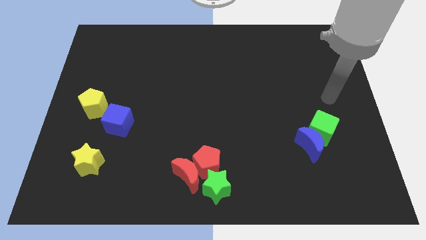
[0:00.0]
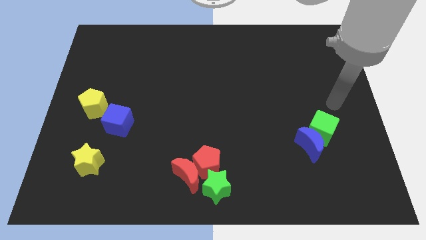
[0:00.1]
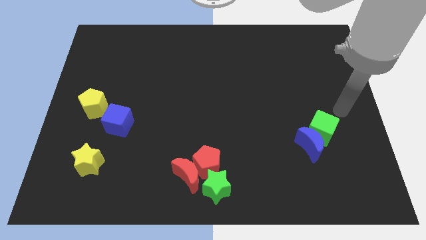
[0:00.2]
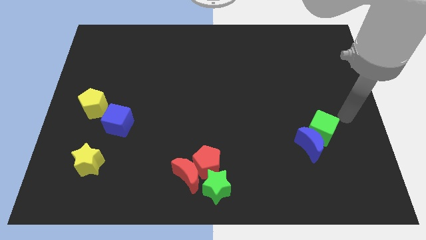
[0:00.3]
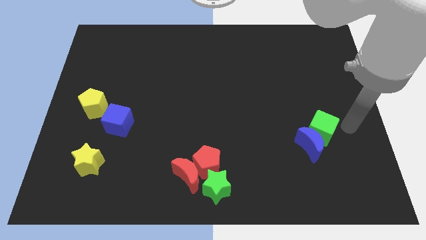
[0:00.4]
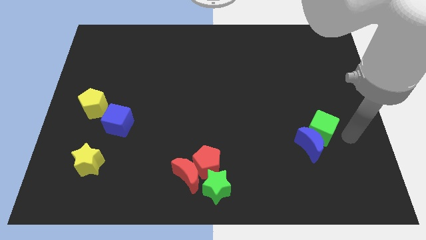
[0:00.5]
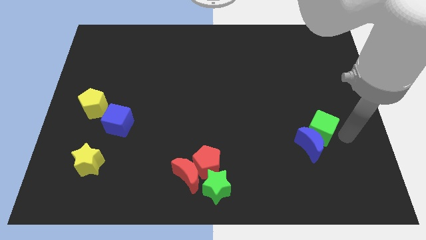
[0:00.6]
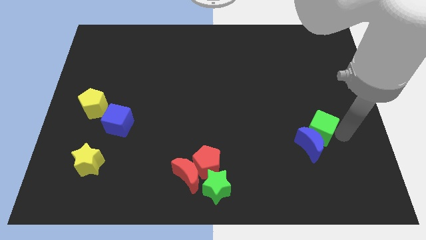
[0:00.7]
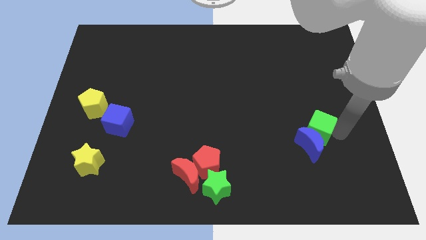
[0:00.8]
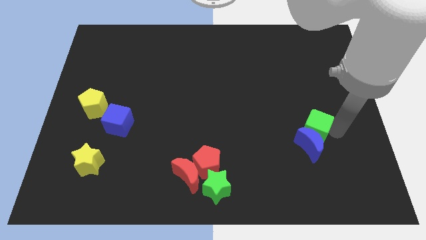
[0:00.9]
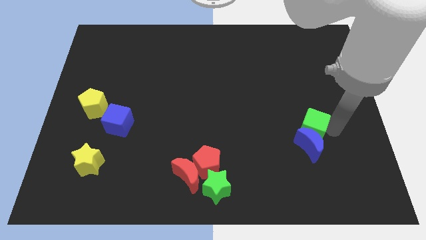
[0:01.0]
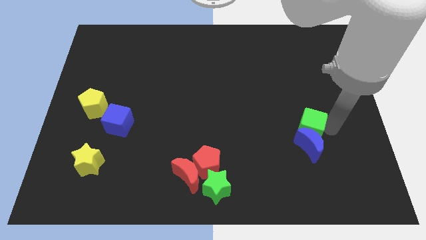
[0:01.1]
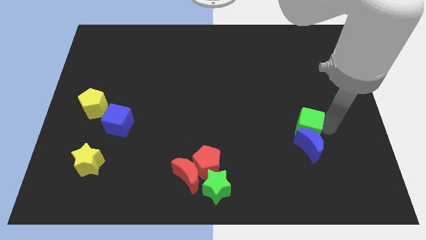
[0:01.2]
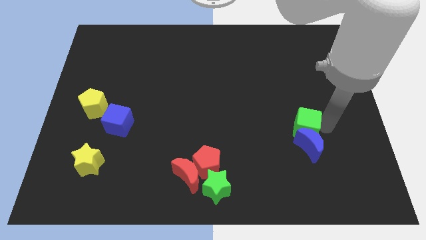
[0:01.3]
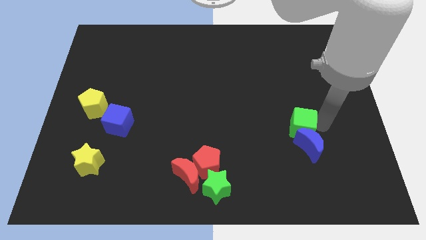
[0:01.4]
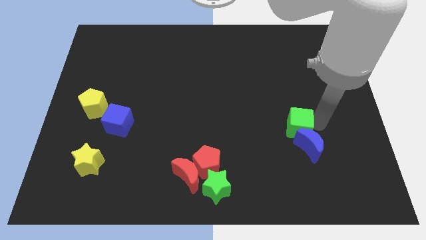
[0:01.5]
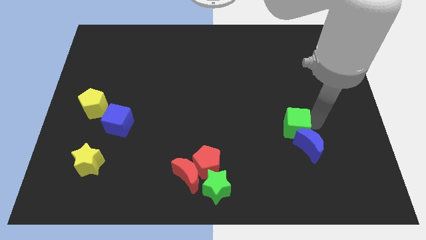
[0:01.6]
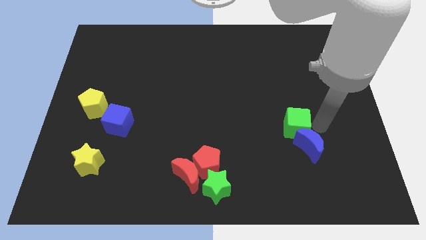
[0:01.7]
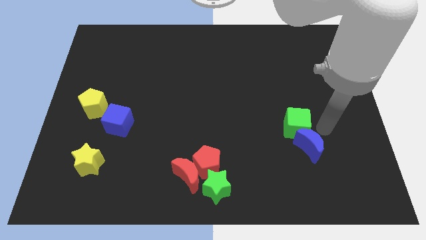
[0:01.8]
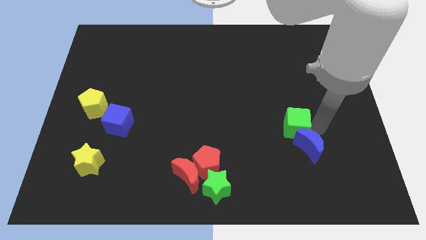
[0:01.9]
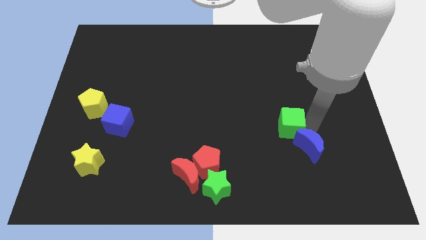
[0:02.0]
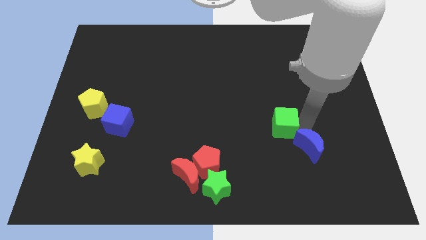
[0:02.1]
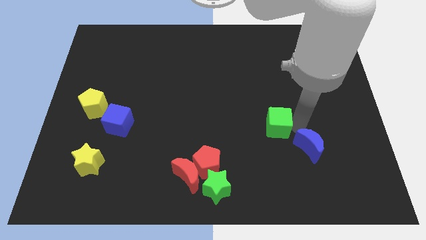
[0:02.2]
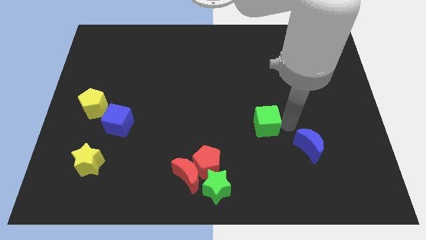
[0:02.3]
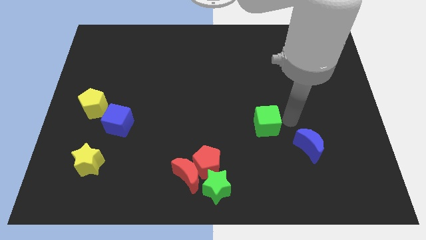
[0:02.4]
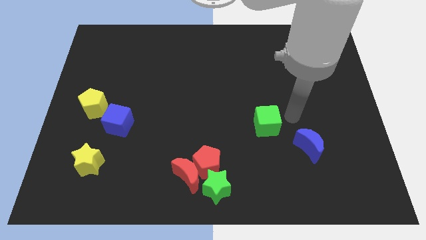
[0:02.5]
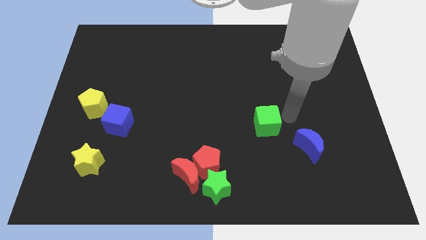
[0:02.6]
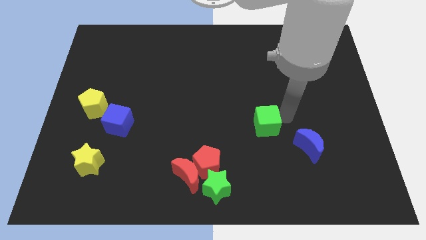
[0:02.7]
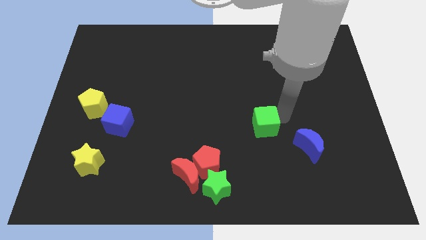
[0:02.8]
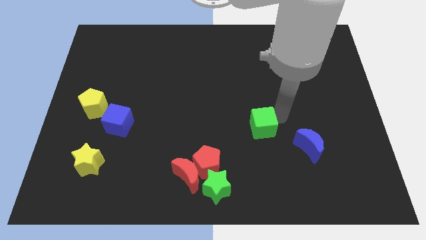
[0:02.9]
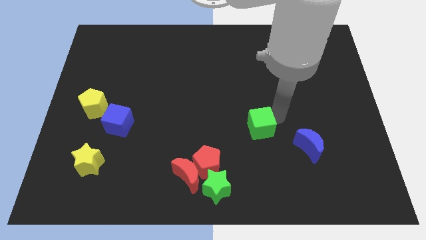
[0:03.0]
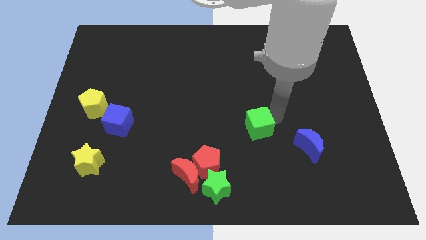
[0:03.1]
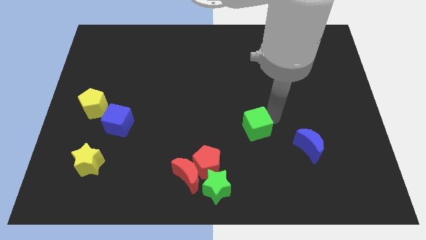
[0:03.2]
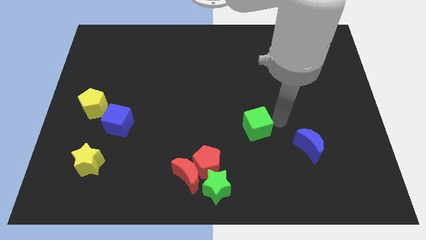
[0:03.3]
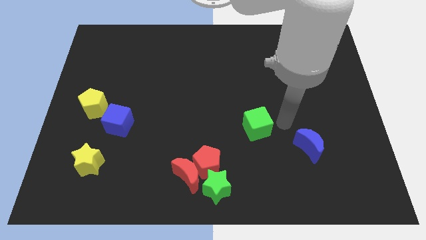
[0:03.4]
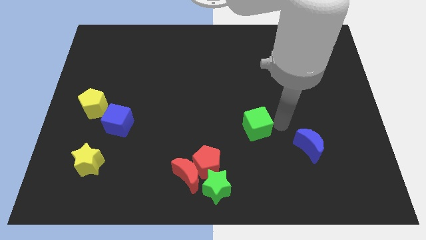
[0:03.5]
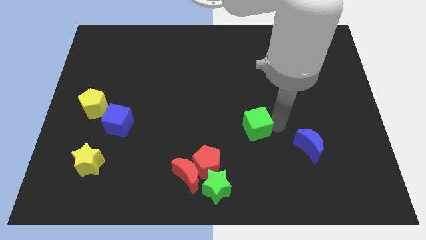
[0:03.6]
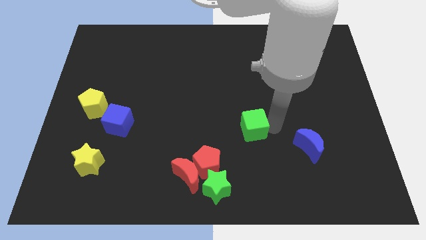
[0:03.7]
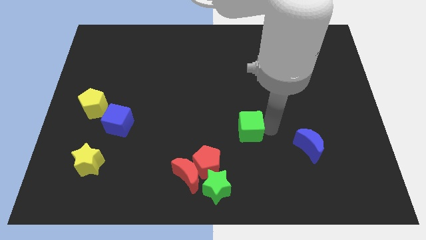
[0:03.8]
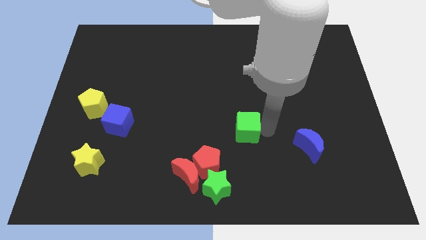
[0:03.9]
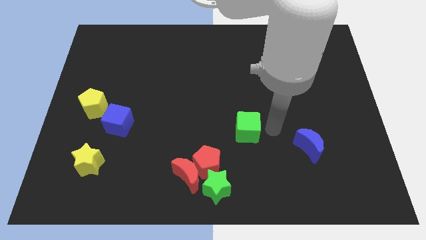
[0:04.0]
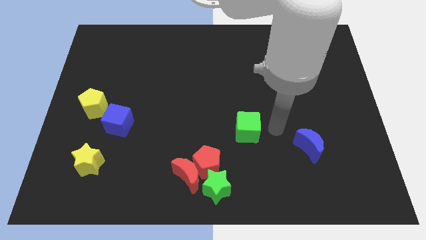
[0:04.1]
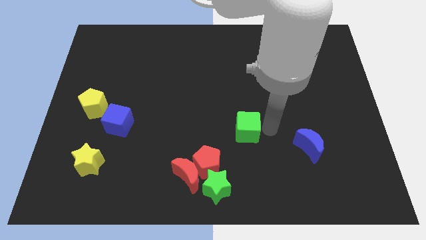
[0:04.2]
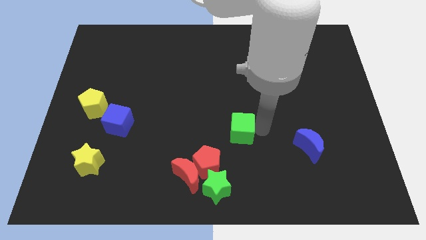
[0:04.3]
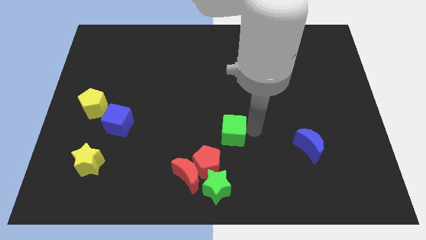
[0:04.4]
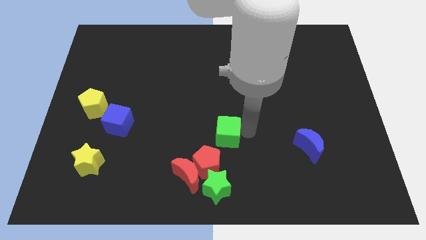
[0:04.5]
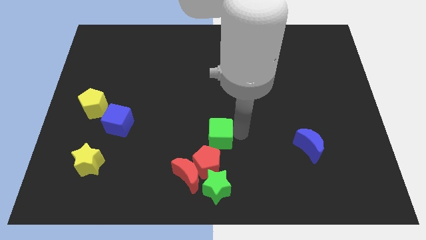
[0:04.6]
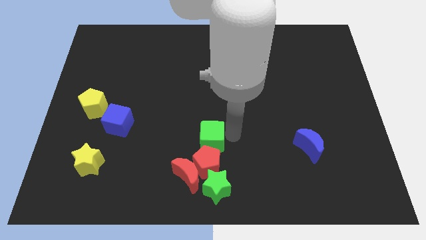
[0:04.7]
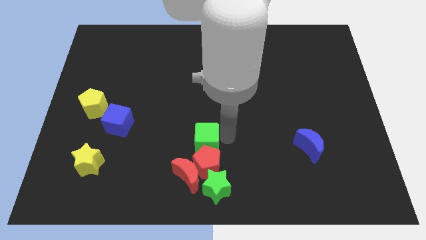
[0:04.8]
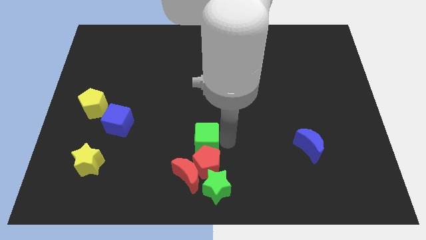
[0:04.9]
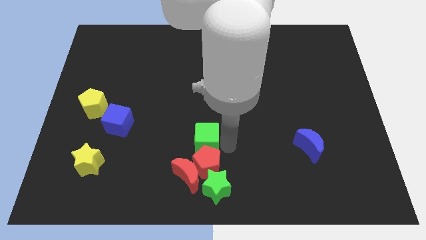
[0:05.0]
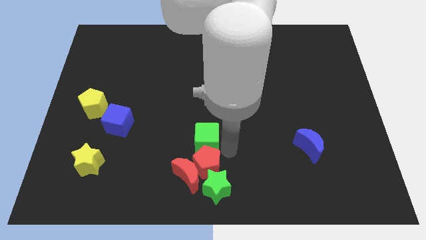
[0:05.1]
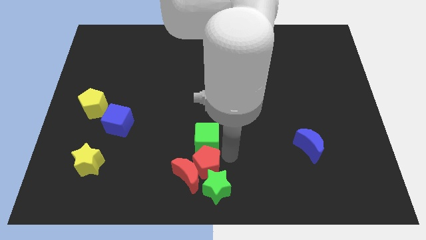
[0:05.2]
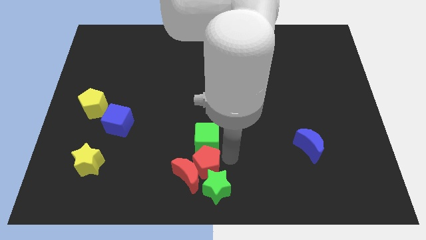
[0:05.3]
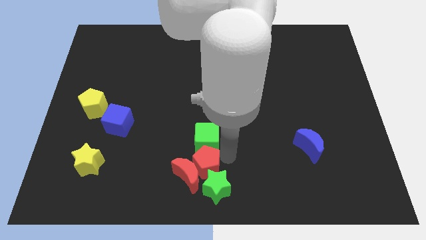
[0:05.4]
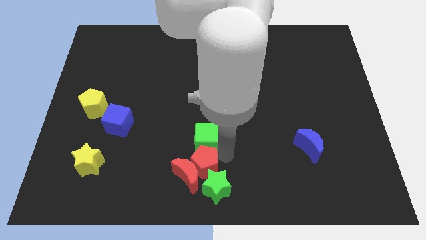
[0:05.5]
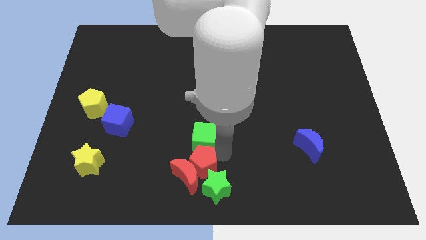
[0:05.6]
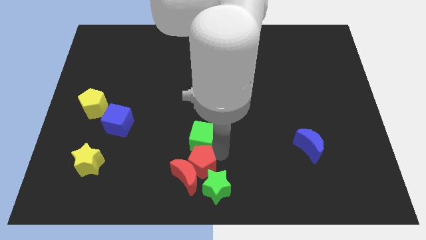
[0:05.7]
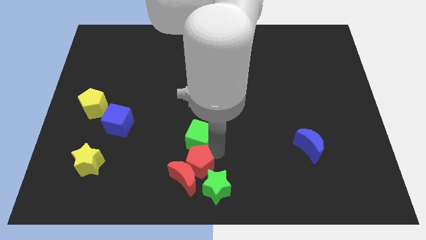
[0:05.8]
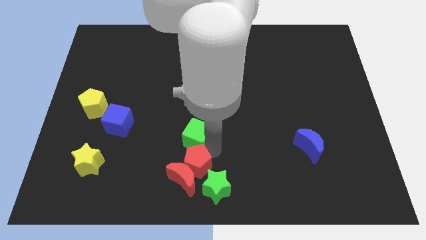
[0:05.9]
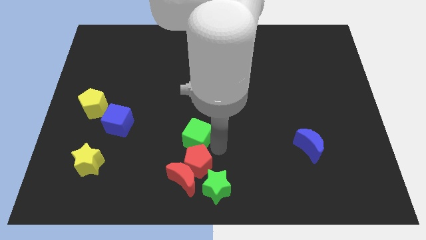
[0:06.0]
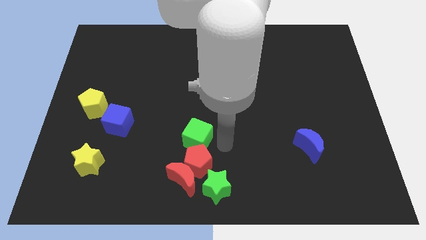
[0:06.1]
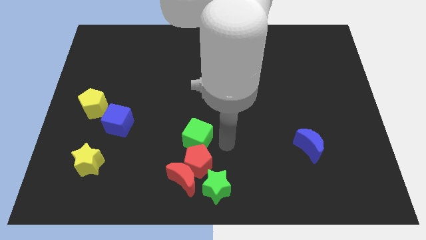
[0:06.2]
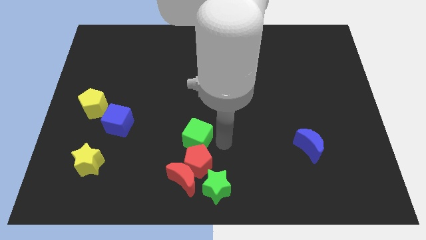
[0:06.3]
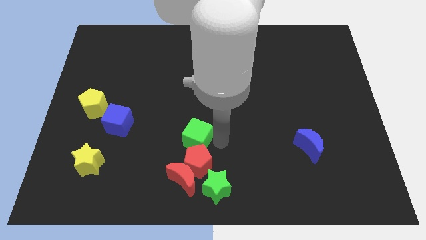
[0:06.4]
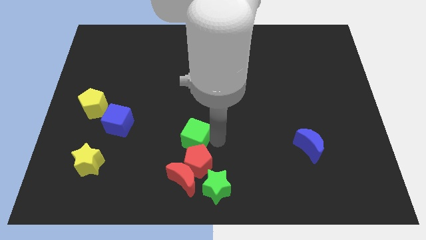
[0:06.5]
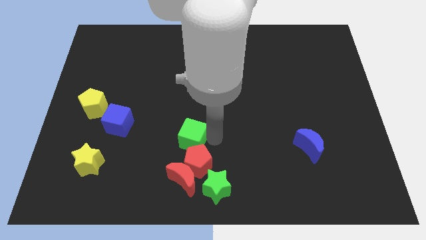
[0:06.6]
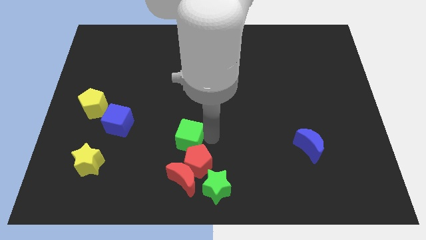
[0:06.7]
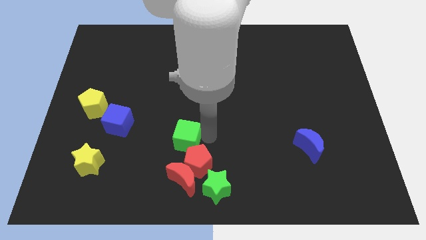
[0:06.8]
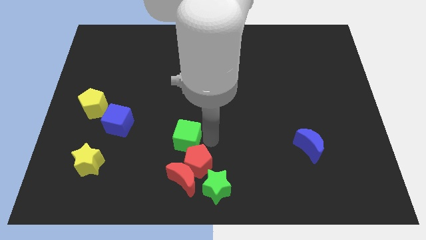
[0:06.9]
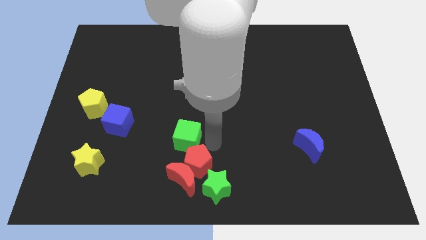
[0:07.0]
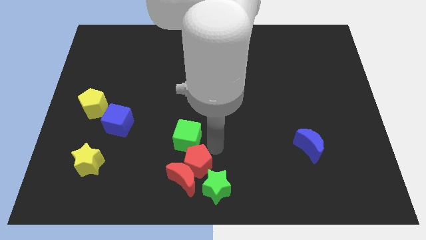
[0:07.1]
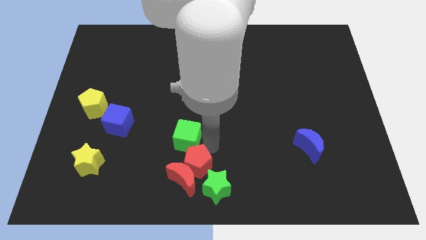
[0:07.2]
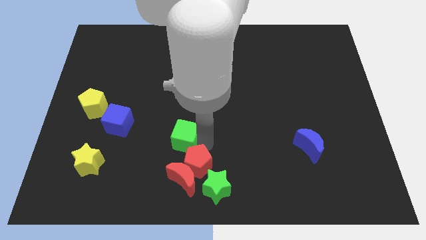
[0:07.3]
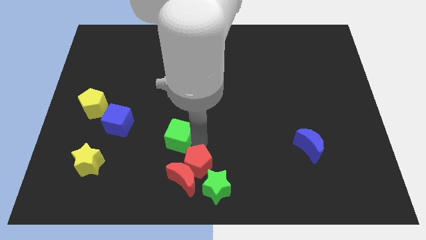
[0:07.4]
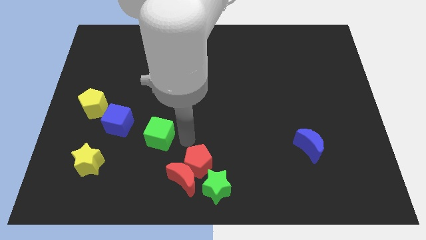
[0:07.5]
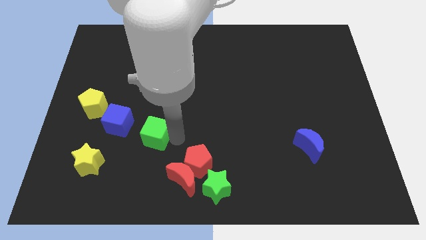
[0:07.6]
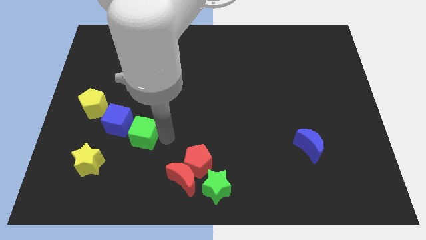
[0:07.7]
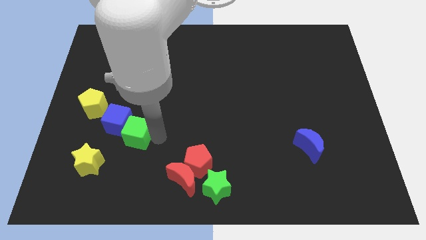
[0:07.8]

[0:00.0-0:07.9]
push the green cube towards the blue cube
